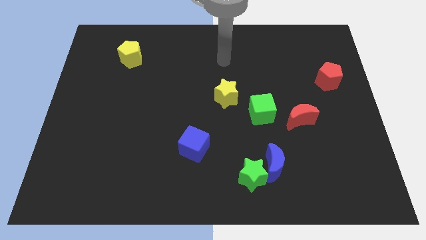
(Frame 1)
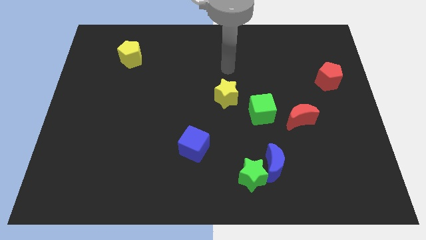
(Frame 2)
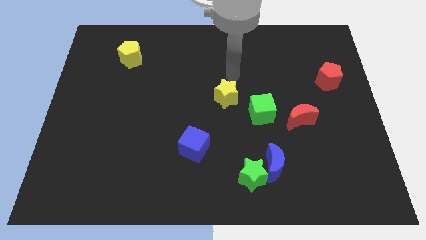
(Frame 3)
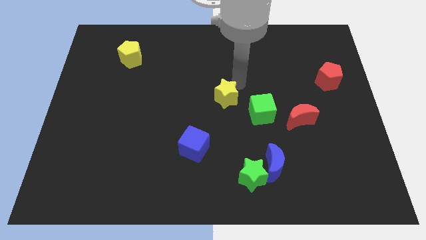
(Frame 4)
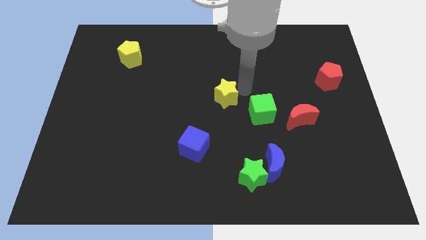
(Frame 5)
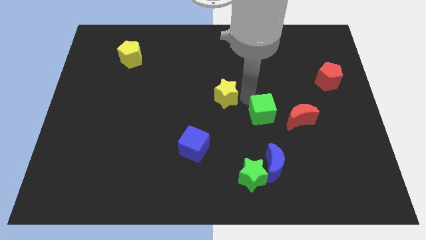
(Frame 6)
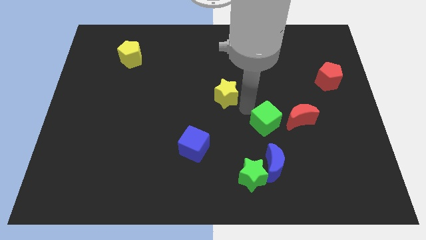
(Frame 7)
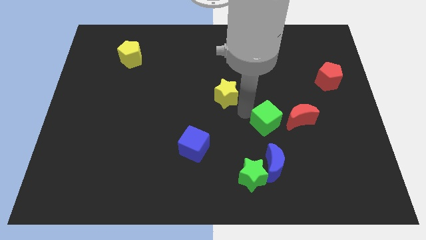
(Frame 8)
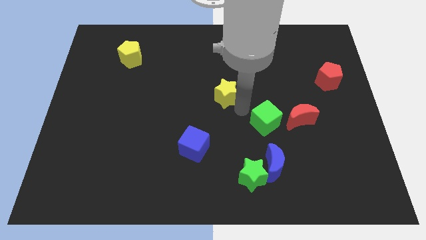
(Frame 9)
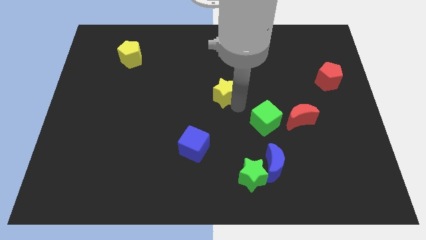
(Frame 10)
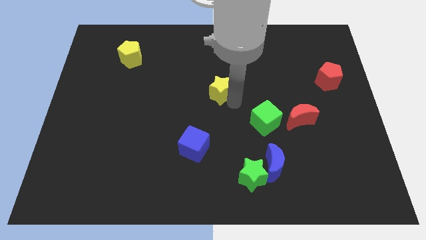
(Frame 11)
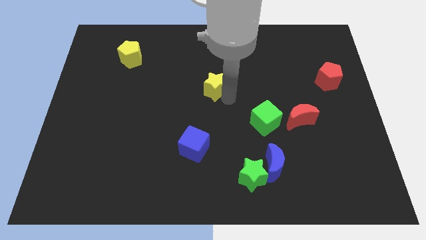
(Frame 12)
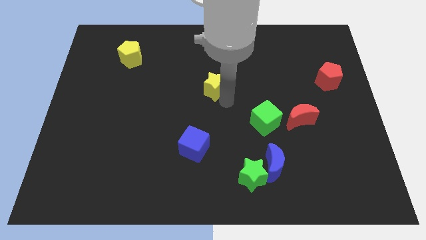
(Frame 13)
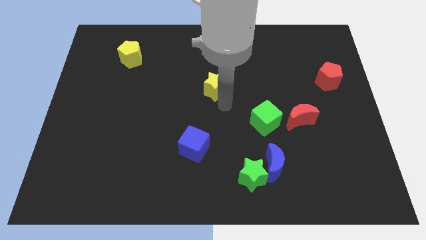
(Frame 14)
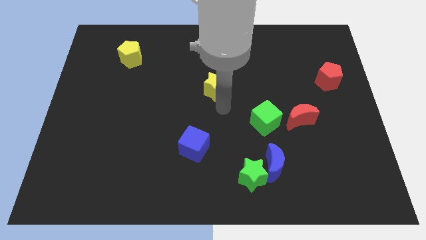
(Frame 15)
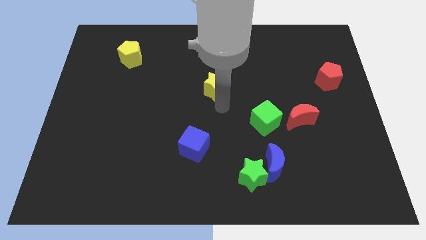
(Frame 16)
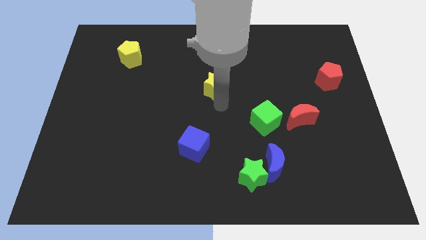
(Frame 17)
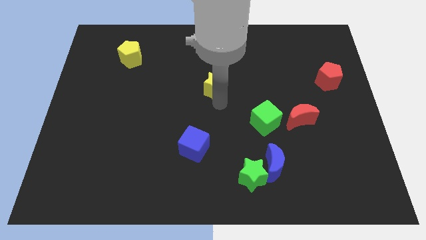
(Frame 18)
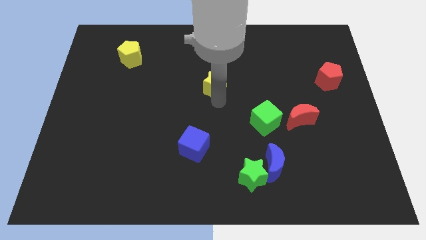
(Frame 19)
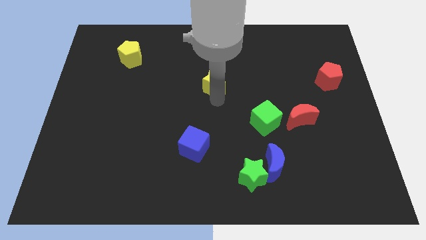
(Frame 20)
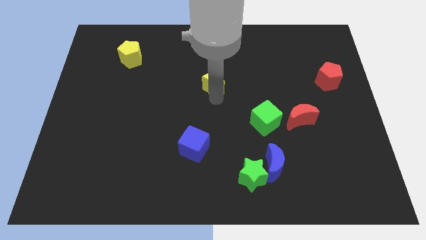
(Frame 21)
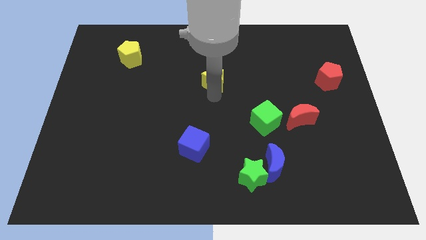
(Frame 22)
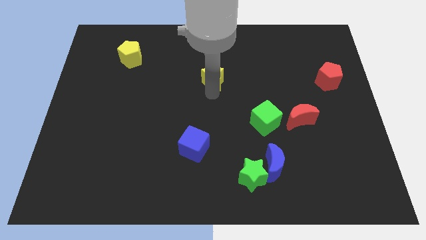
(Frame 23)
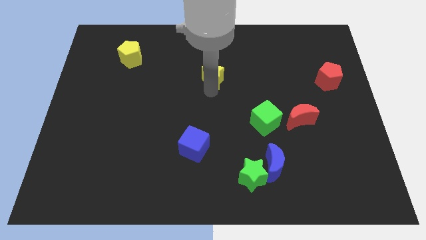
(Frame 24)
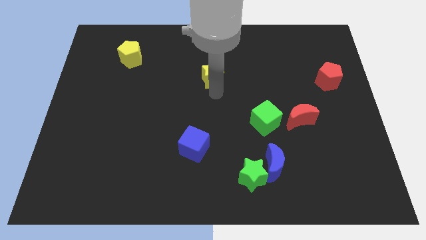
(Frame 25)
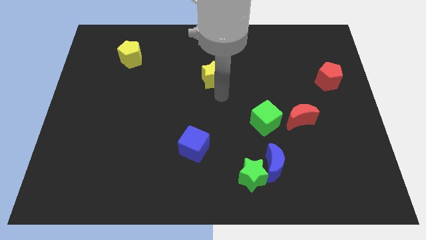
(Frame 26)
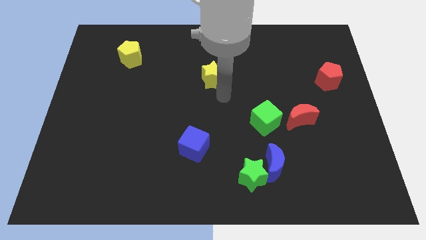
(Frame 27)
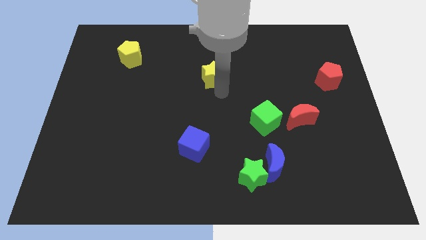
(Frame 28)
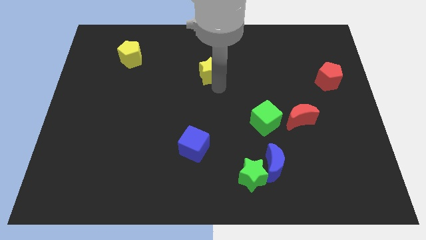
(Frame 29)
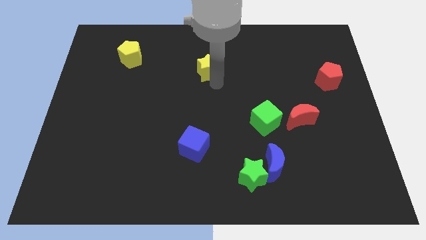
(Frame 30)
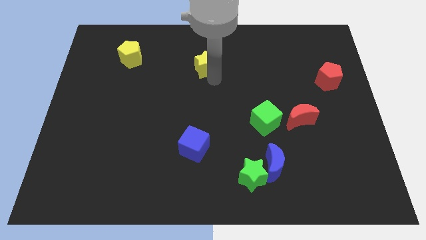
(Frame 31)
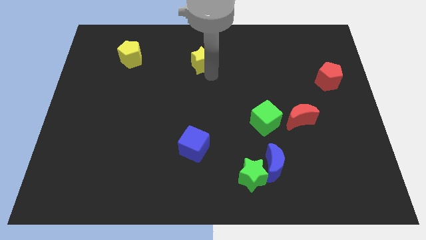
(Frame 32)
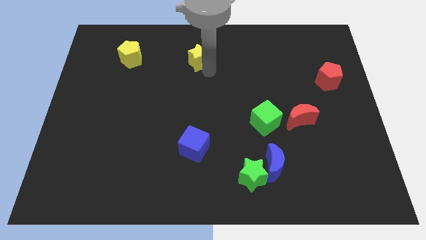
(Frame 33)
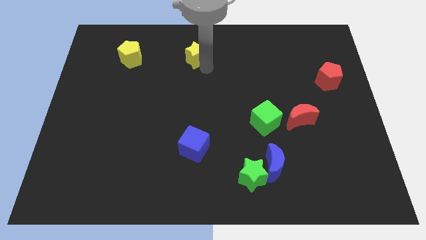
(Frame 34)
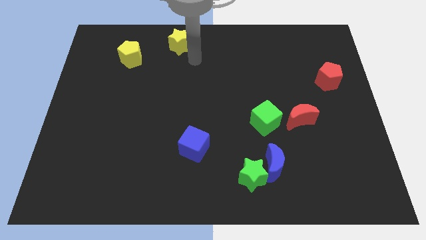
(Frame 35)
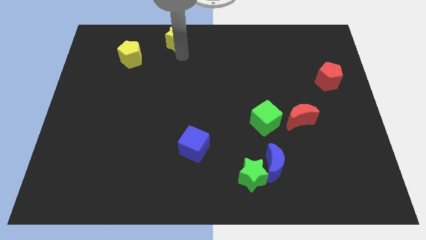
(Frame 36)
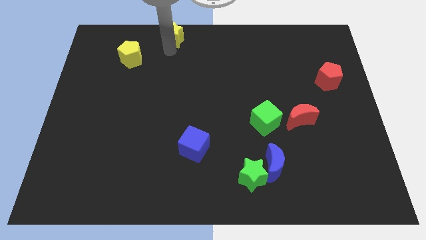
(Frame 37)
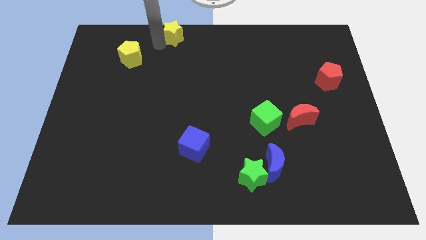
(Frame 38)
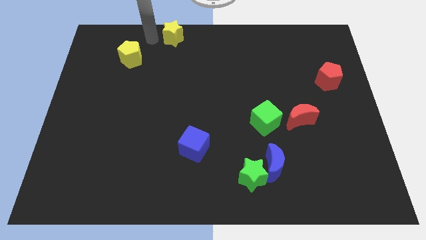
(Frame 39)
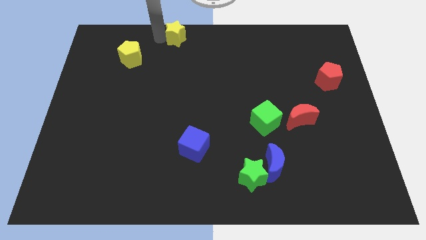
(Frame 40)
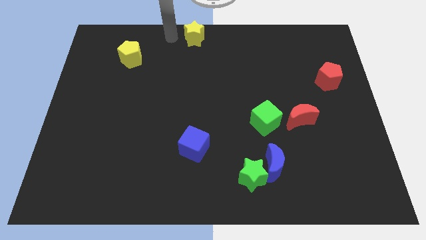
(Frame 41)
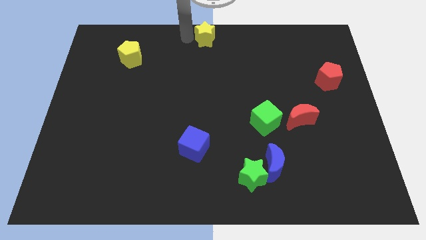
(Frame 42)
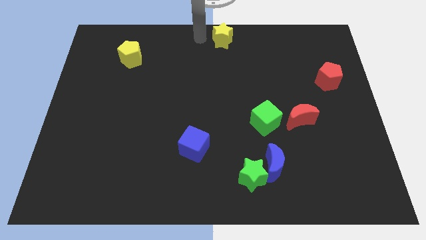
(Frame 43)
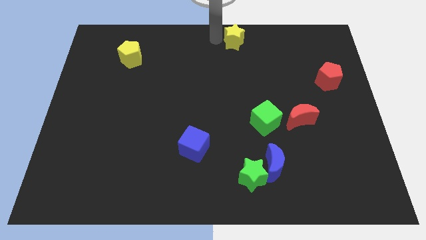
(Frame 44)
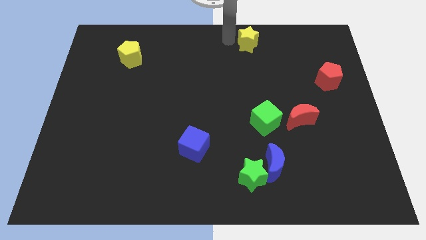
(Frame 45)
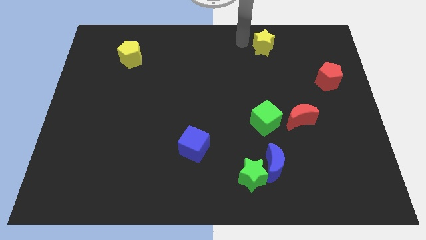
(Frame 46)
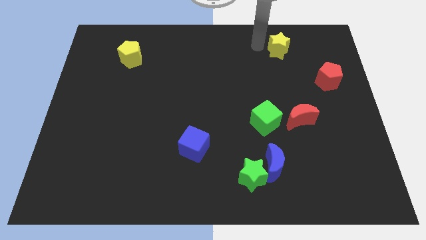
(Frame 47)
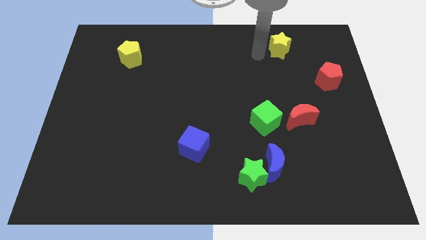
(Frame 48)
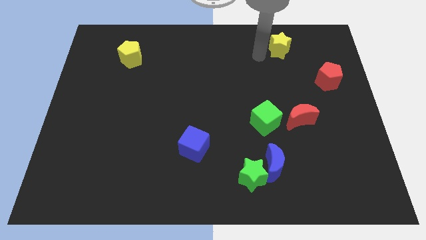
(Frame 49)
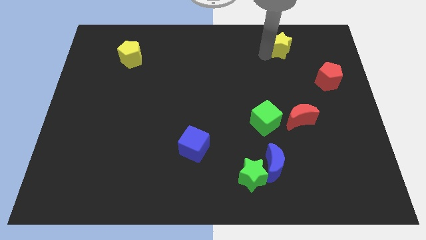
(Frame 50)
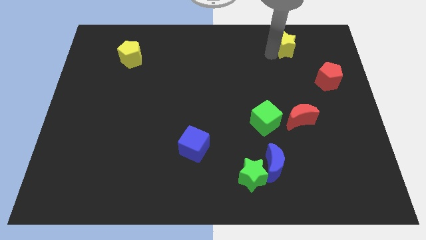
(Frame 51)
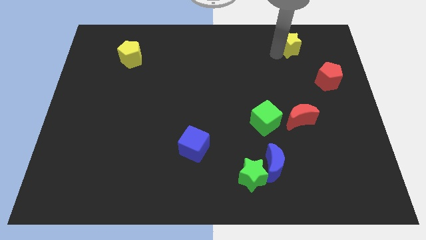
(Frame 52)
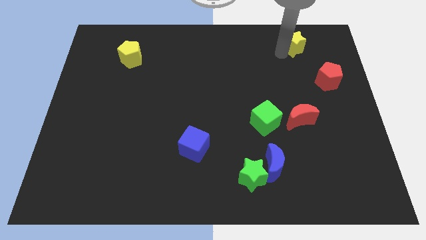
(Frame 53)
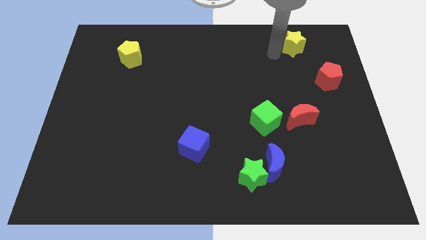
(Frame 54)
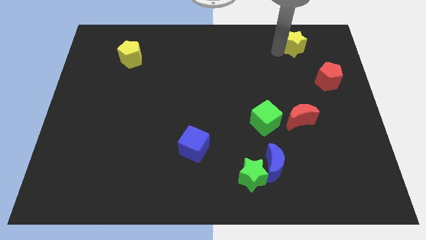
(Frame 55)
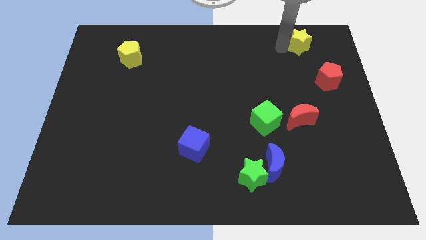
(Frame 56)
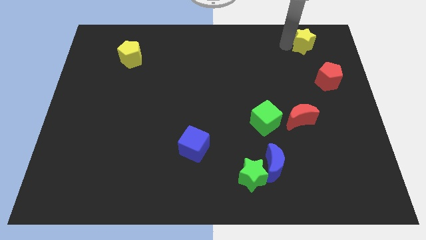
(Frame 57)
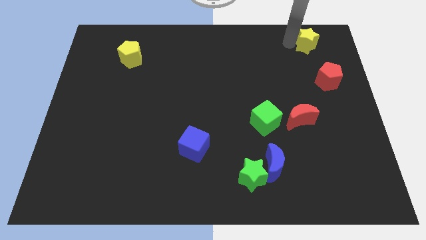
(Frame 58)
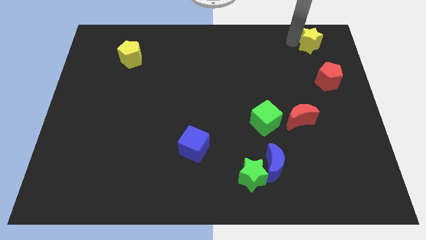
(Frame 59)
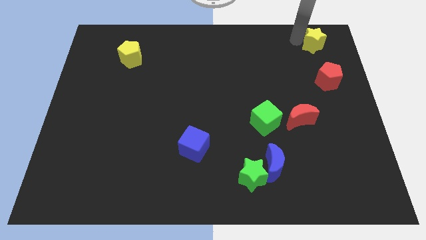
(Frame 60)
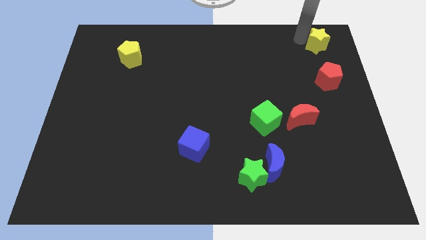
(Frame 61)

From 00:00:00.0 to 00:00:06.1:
slide the yellow star to the top right corner

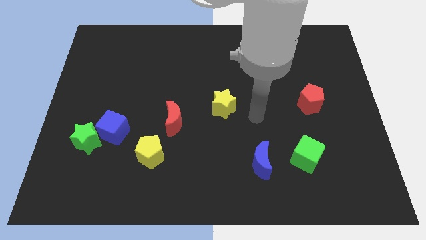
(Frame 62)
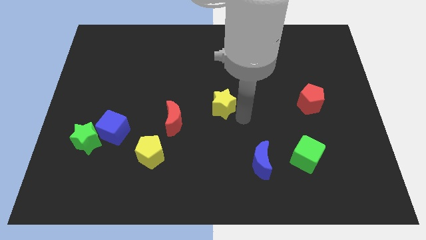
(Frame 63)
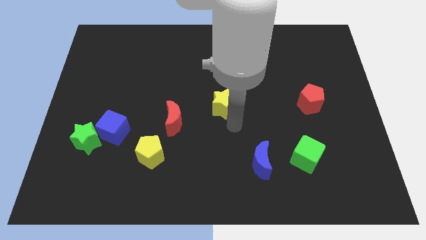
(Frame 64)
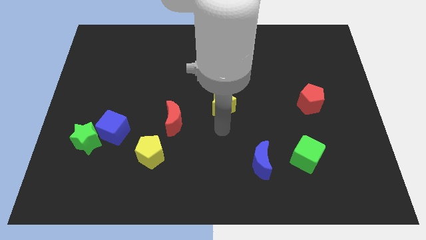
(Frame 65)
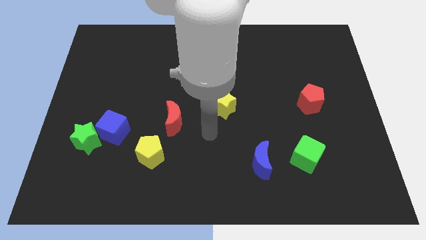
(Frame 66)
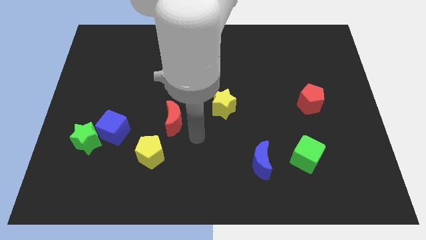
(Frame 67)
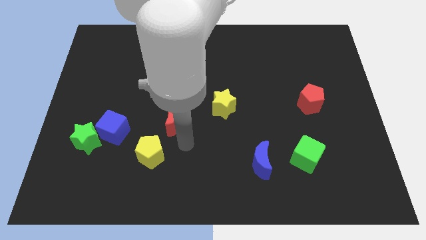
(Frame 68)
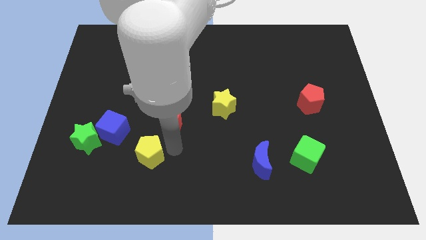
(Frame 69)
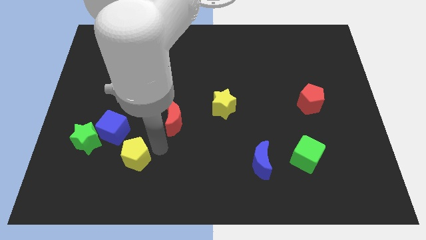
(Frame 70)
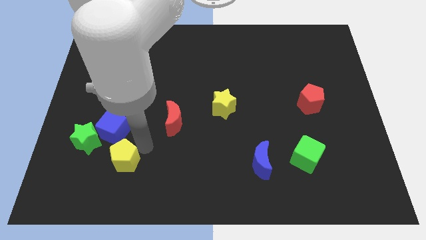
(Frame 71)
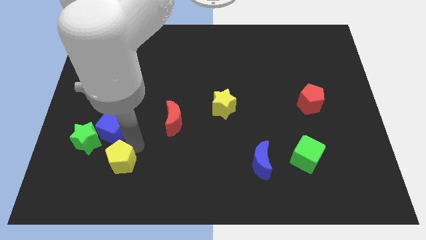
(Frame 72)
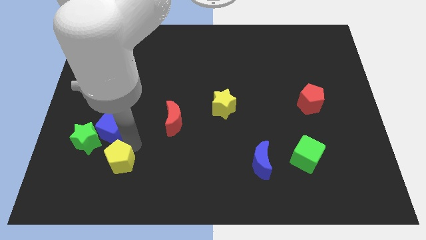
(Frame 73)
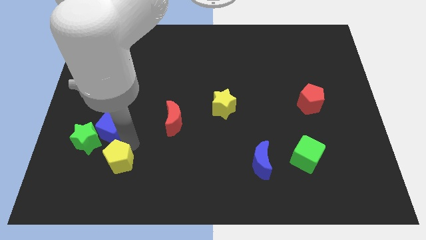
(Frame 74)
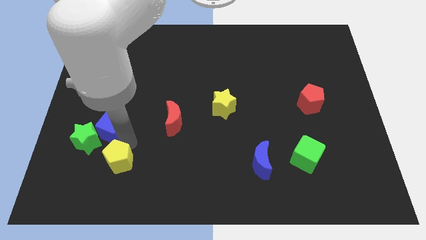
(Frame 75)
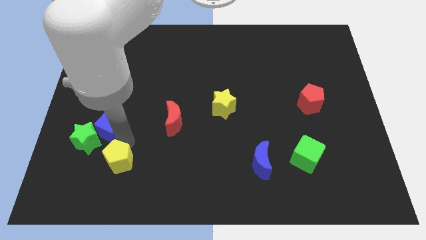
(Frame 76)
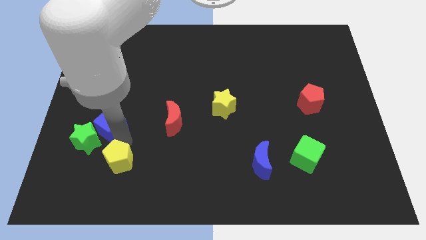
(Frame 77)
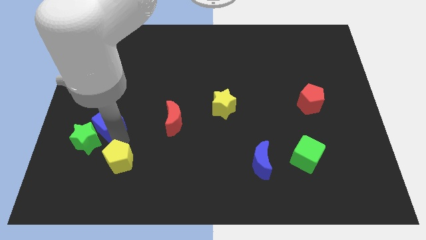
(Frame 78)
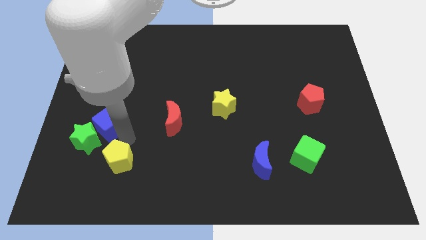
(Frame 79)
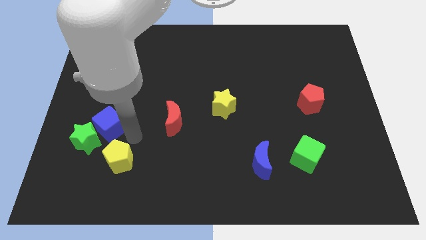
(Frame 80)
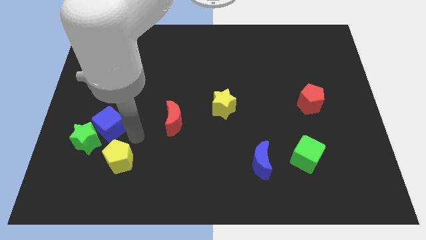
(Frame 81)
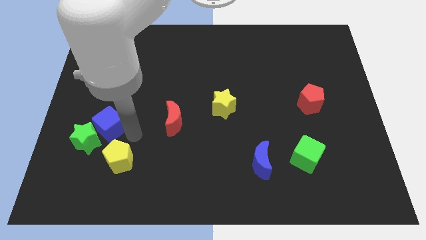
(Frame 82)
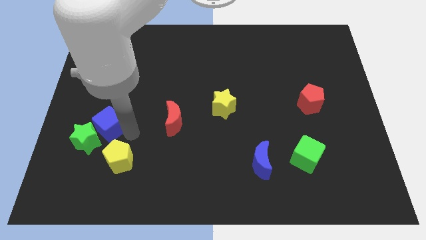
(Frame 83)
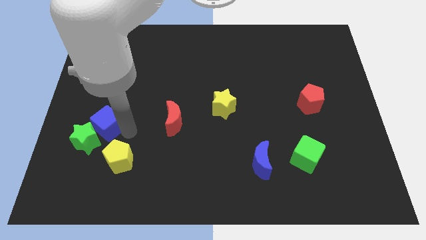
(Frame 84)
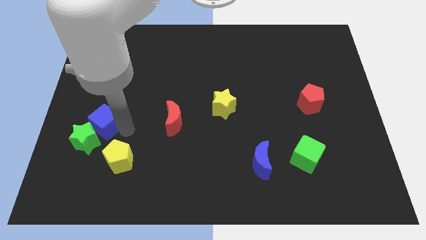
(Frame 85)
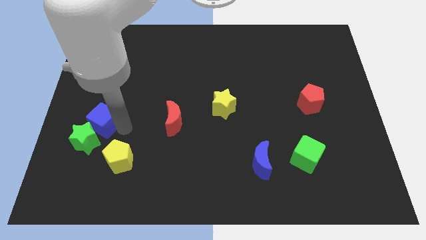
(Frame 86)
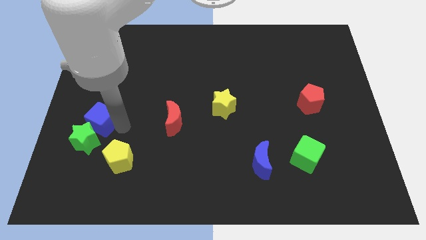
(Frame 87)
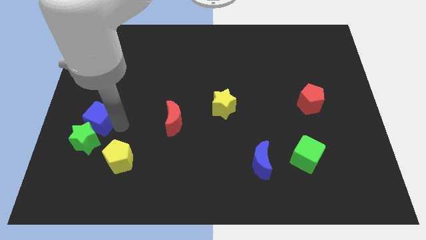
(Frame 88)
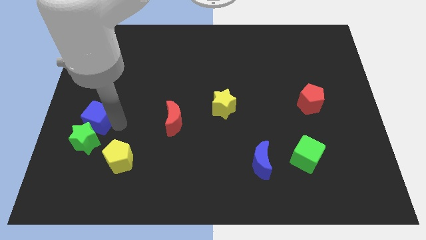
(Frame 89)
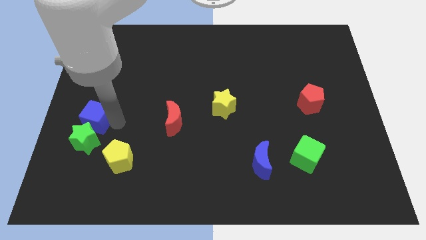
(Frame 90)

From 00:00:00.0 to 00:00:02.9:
put the blue cube to the center left
